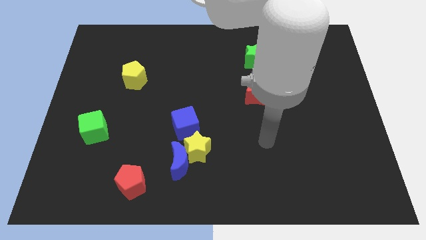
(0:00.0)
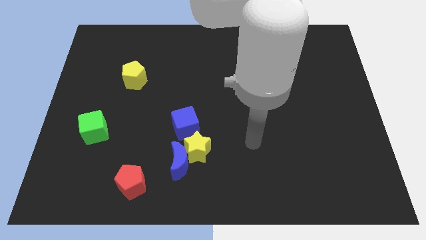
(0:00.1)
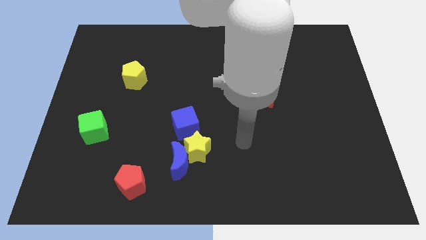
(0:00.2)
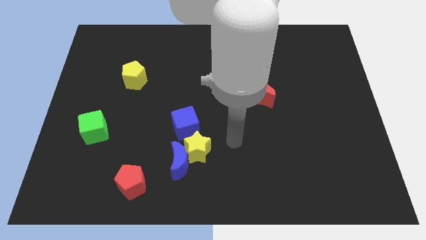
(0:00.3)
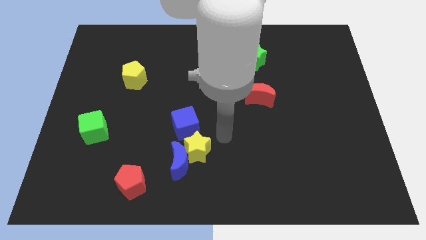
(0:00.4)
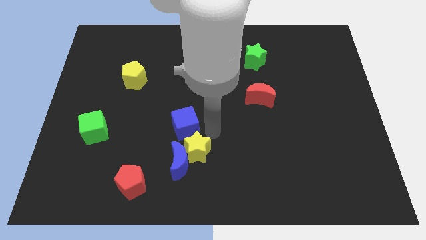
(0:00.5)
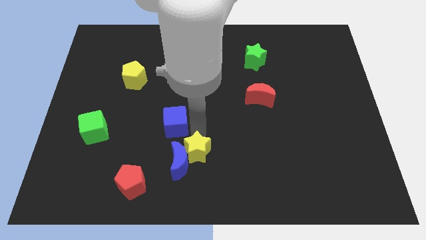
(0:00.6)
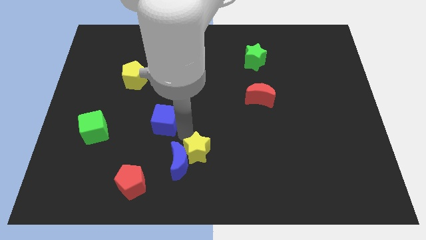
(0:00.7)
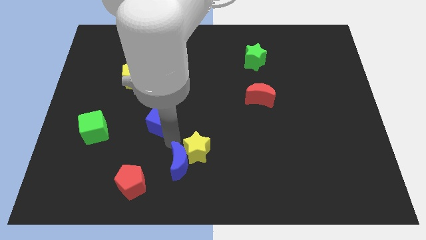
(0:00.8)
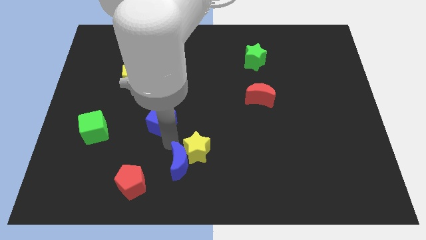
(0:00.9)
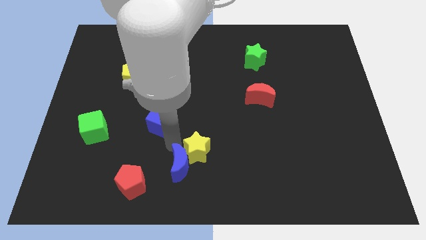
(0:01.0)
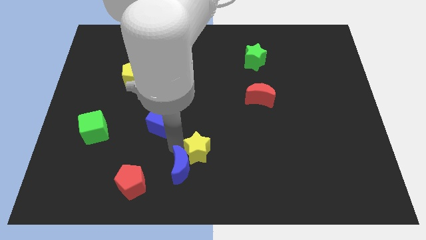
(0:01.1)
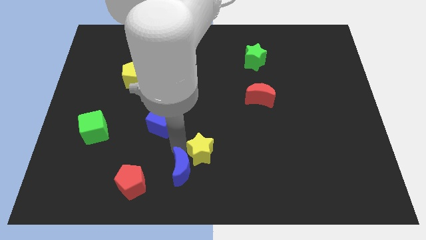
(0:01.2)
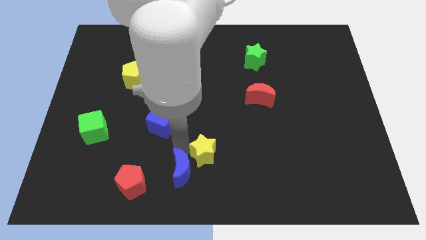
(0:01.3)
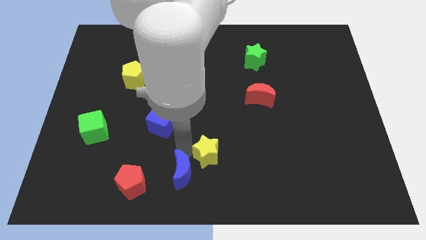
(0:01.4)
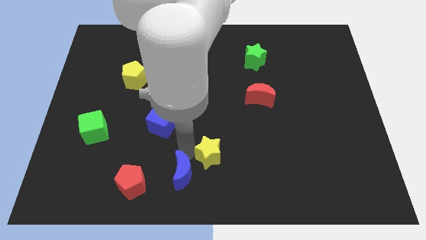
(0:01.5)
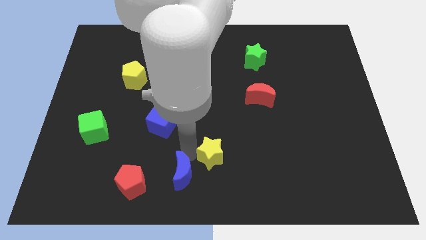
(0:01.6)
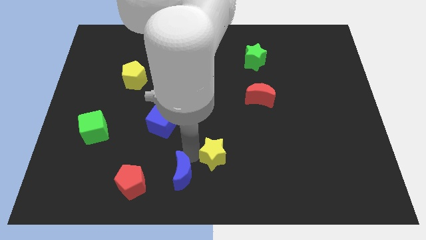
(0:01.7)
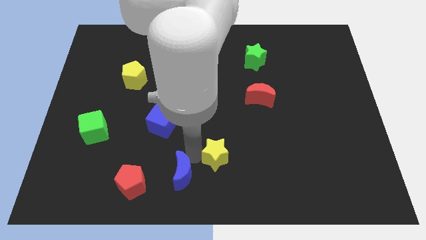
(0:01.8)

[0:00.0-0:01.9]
pull the yellow star apart from the blue moon and blue cube

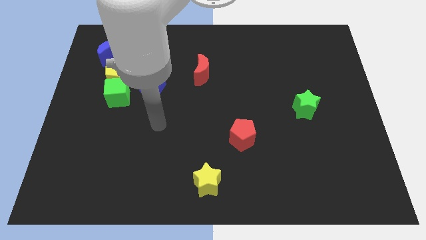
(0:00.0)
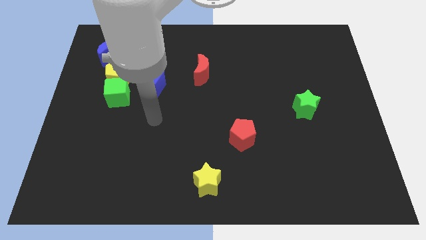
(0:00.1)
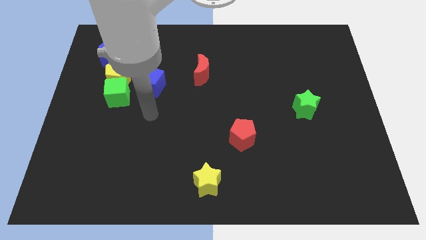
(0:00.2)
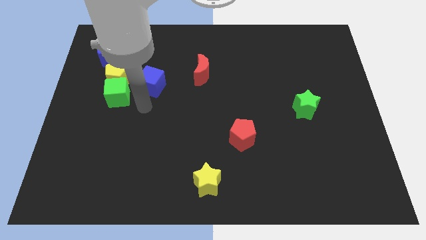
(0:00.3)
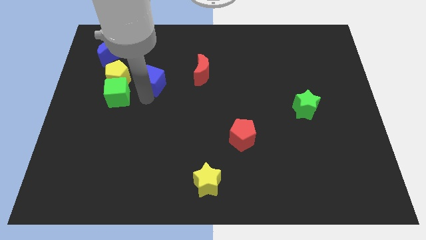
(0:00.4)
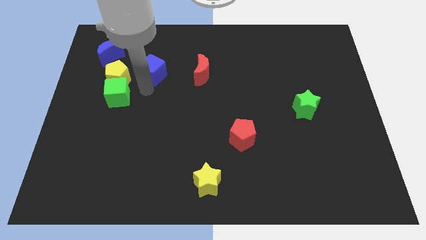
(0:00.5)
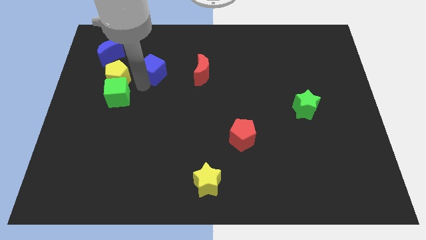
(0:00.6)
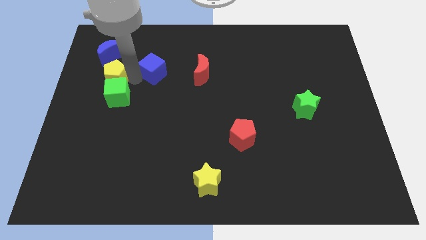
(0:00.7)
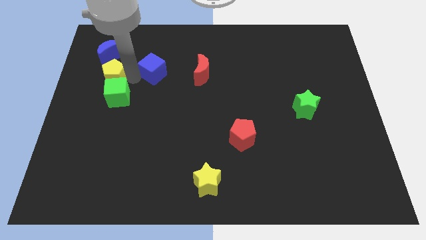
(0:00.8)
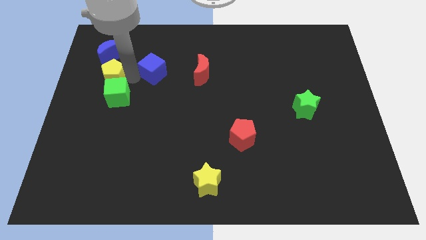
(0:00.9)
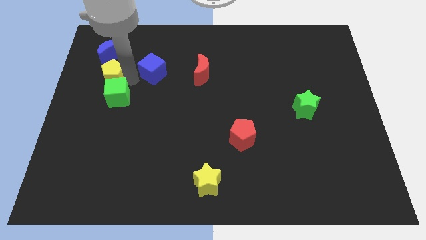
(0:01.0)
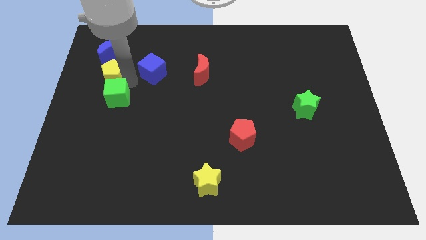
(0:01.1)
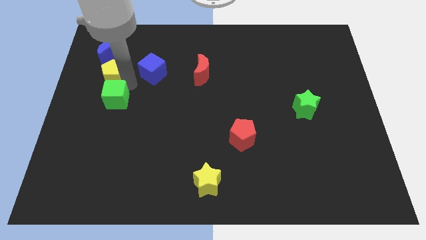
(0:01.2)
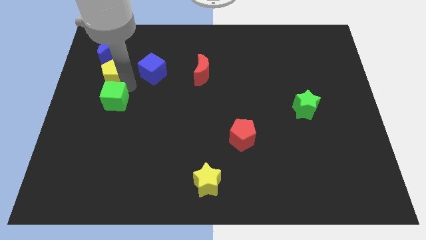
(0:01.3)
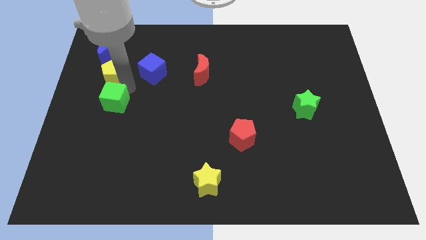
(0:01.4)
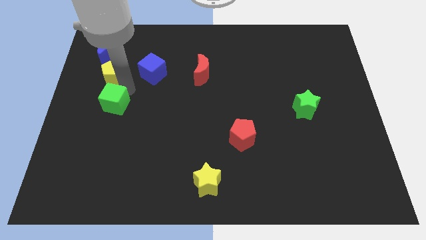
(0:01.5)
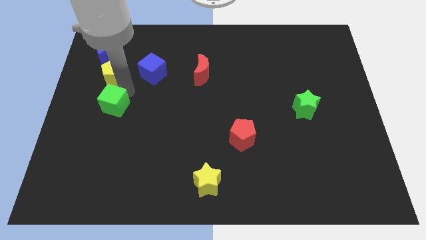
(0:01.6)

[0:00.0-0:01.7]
separate the green cube from the yellow pentagon and blue cube

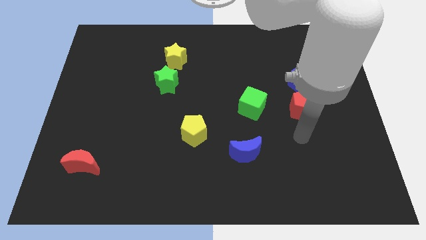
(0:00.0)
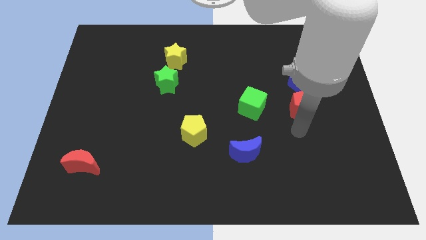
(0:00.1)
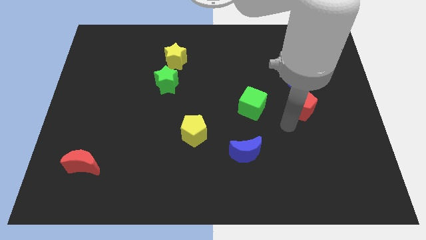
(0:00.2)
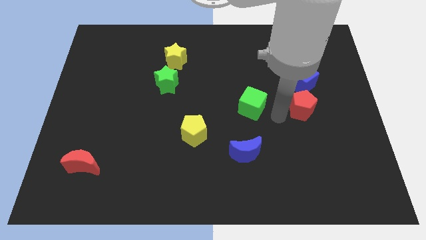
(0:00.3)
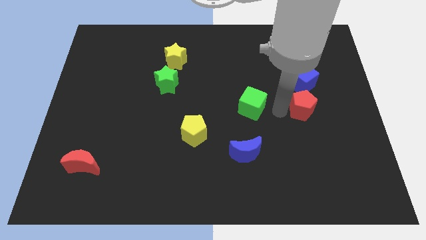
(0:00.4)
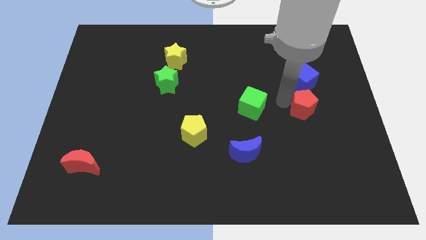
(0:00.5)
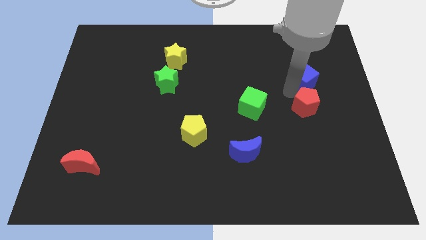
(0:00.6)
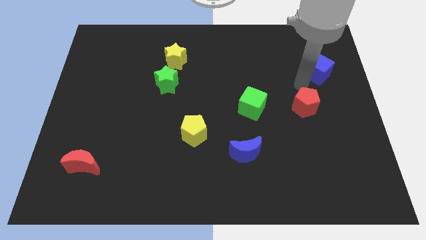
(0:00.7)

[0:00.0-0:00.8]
pull the red pentagon apart from the blue cube

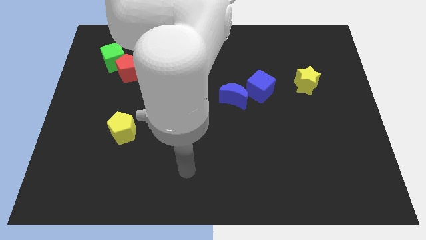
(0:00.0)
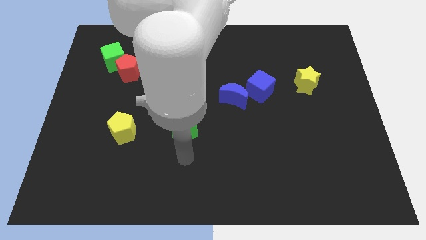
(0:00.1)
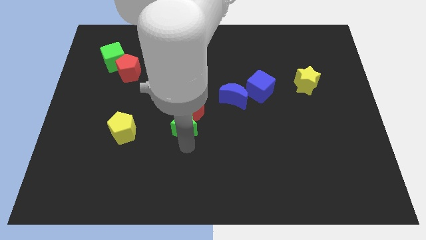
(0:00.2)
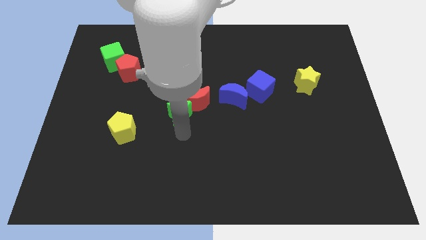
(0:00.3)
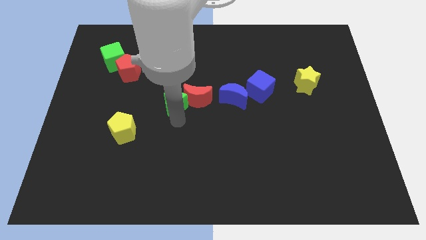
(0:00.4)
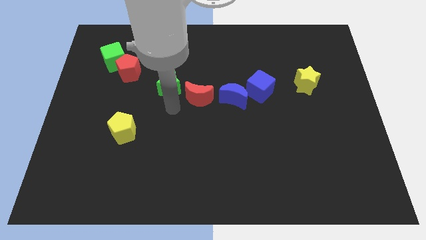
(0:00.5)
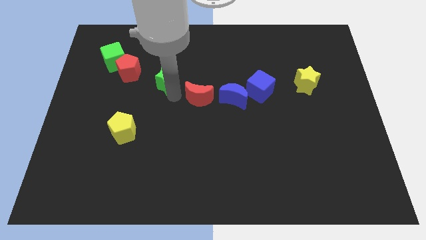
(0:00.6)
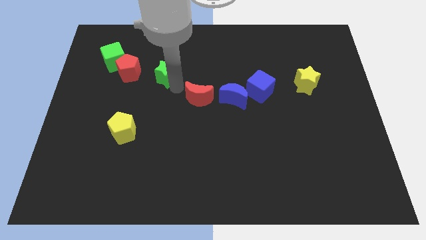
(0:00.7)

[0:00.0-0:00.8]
pull the red moon apart from the green star

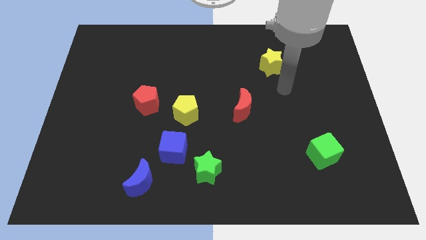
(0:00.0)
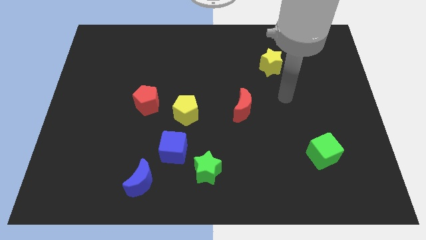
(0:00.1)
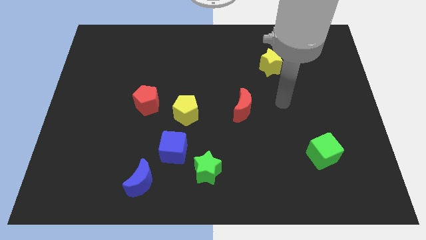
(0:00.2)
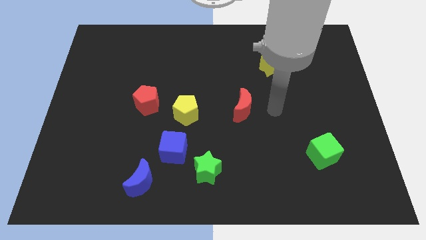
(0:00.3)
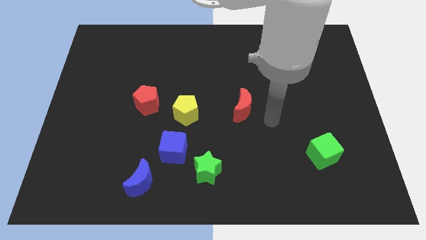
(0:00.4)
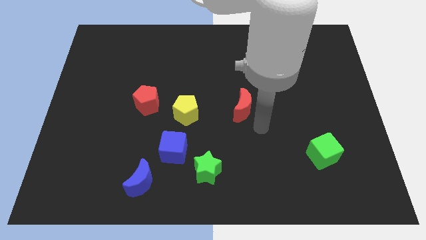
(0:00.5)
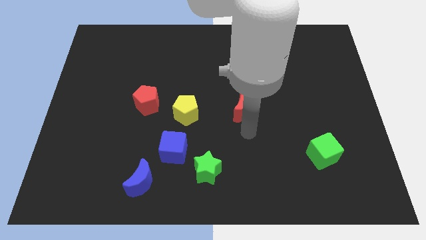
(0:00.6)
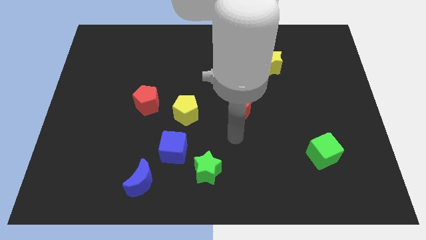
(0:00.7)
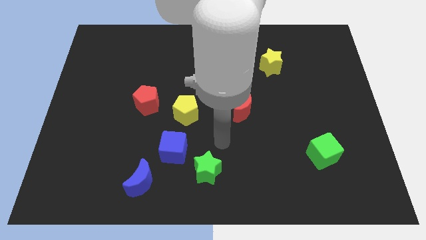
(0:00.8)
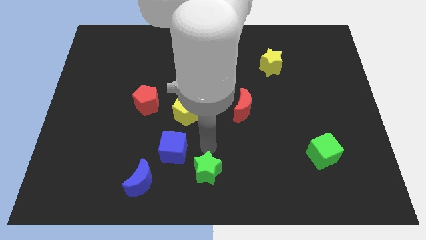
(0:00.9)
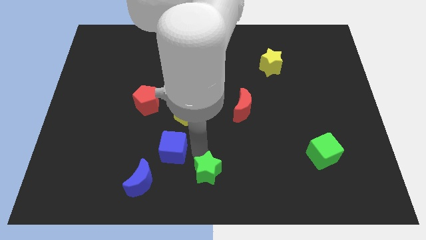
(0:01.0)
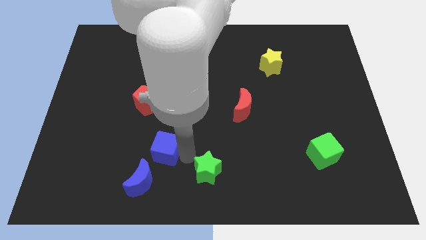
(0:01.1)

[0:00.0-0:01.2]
move the green star away from the blue cube

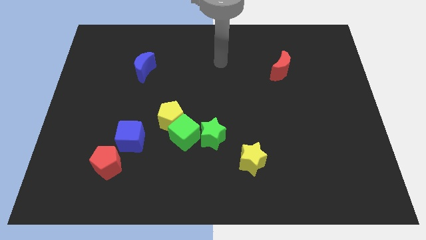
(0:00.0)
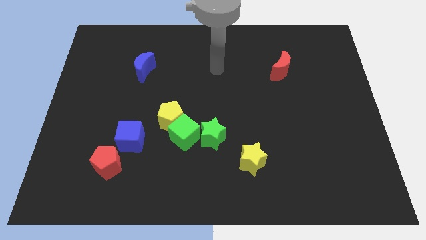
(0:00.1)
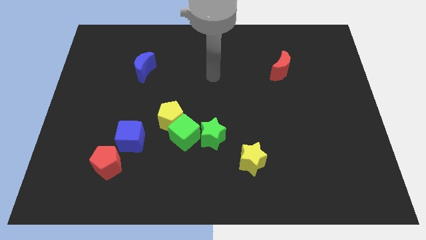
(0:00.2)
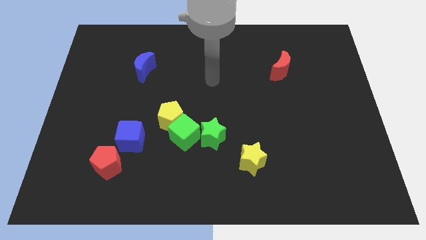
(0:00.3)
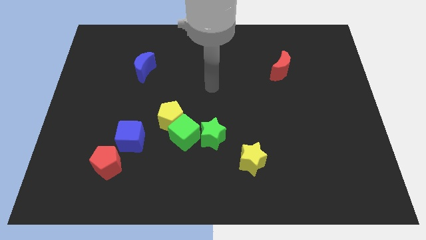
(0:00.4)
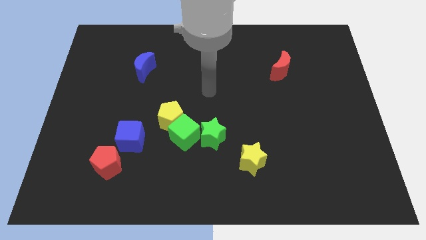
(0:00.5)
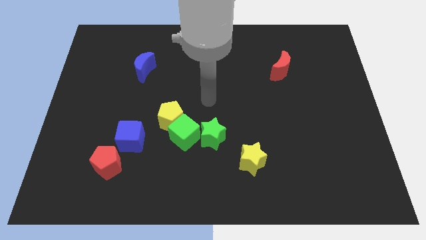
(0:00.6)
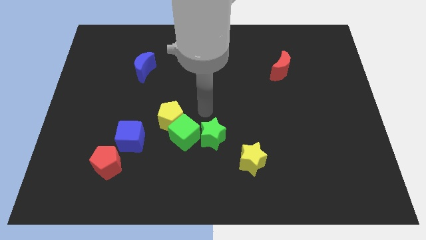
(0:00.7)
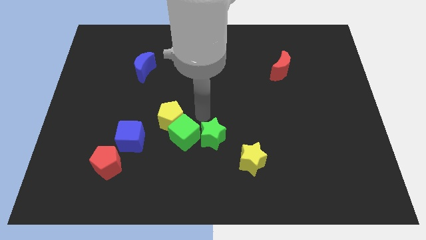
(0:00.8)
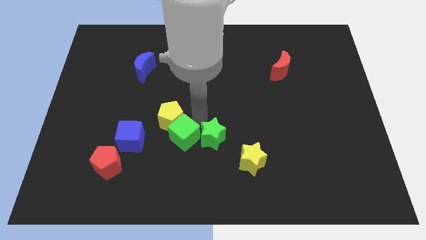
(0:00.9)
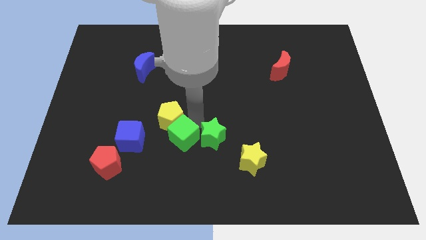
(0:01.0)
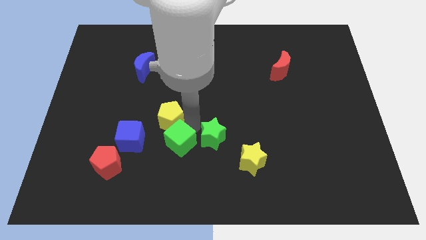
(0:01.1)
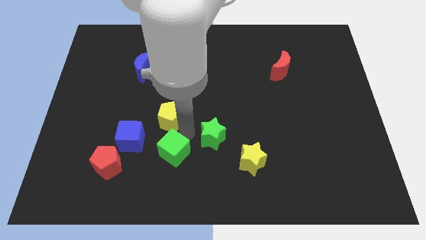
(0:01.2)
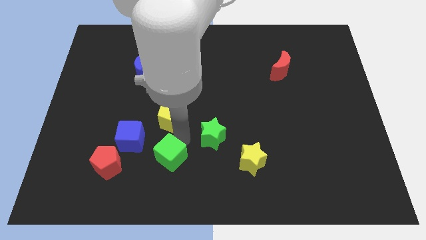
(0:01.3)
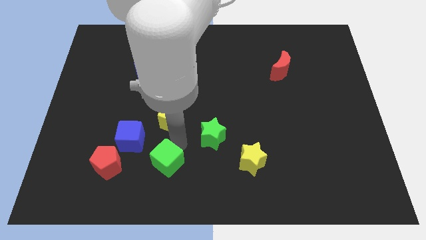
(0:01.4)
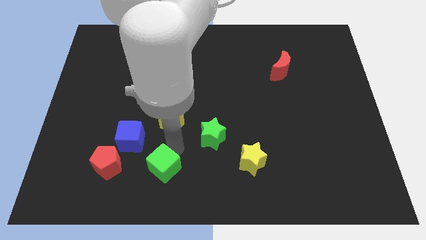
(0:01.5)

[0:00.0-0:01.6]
move the green cube away from the yellow pentagon and green star

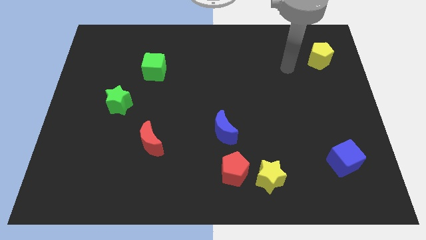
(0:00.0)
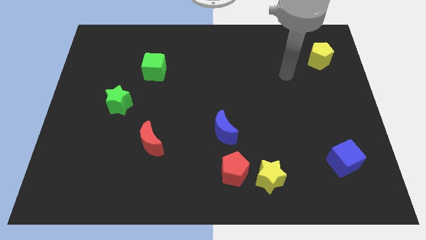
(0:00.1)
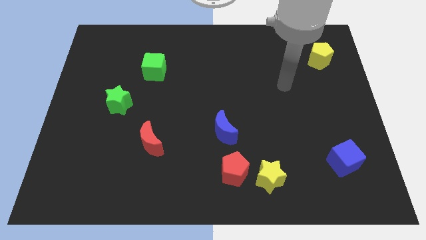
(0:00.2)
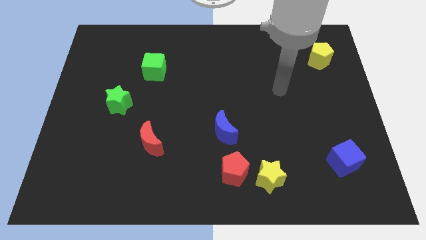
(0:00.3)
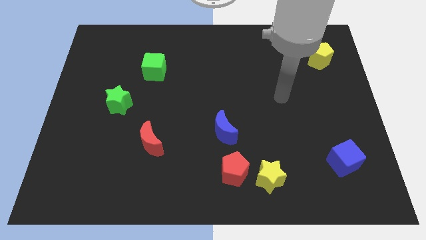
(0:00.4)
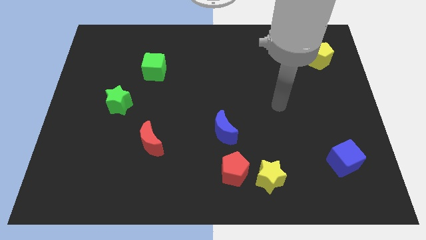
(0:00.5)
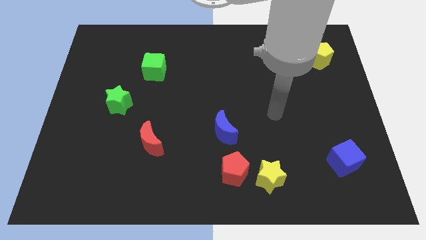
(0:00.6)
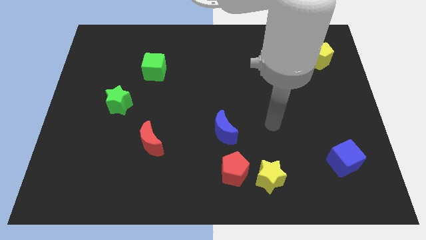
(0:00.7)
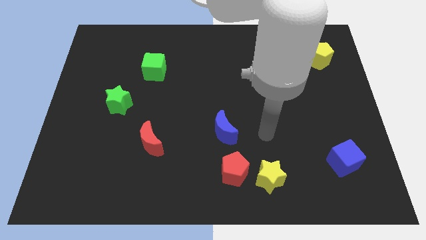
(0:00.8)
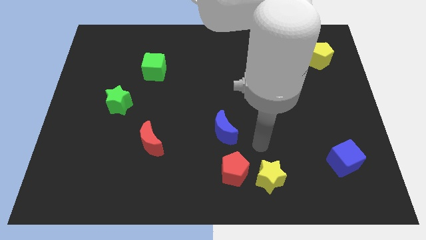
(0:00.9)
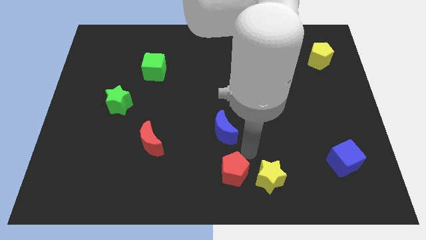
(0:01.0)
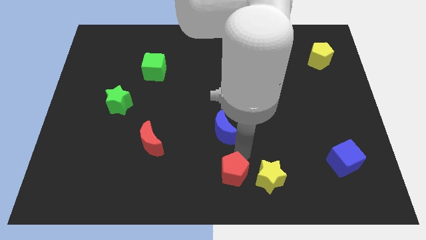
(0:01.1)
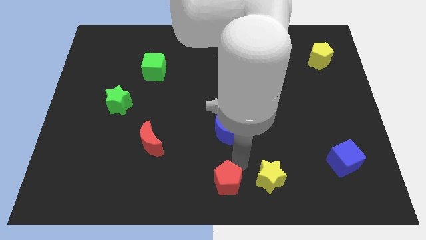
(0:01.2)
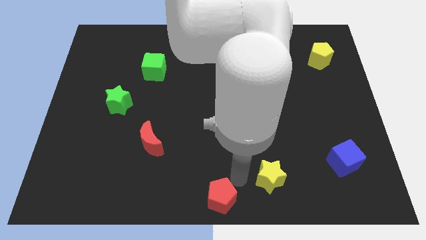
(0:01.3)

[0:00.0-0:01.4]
pull the yellow star apart from the red pentagon
